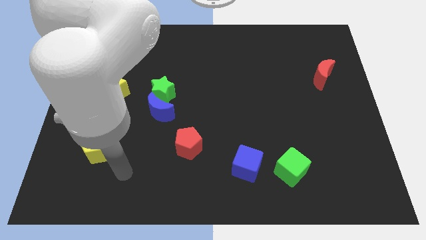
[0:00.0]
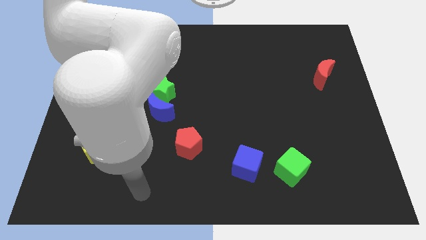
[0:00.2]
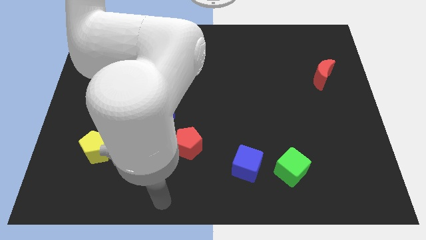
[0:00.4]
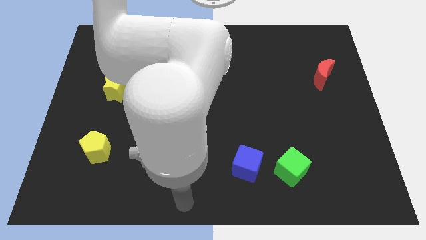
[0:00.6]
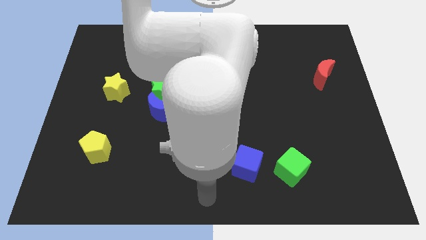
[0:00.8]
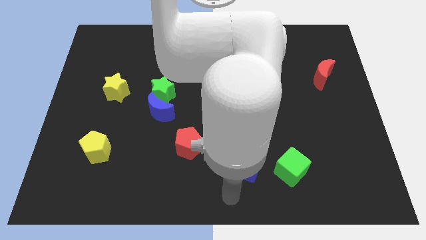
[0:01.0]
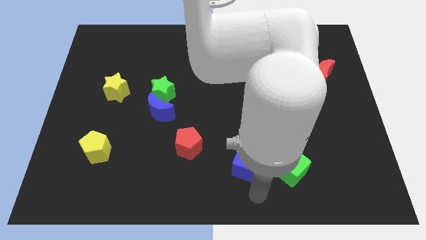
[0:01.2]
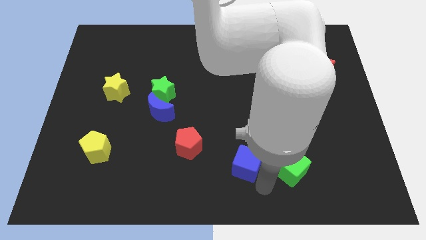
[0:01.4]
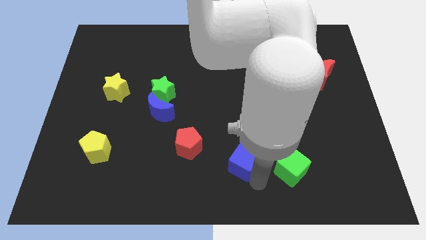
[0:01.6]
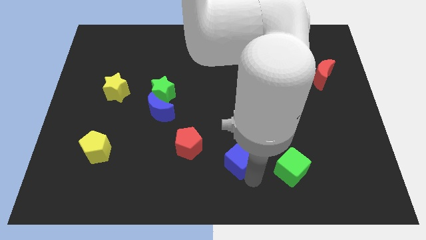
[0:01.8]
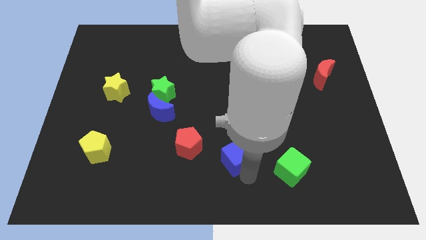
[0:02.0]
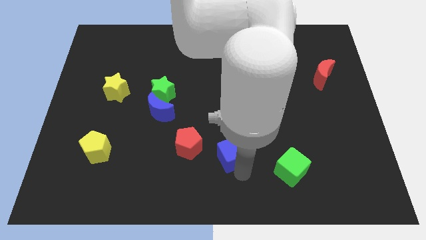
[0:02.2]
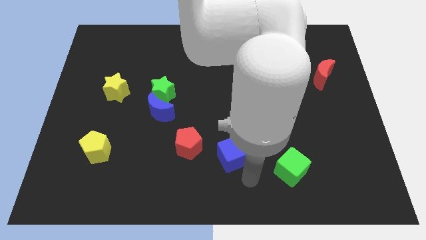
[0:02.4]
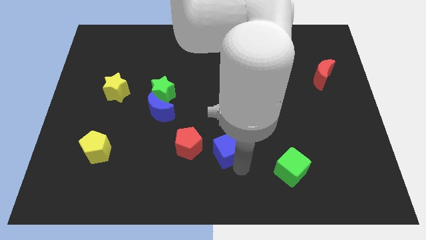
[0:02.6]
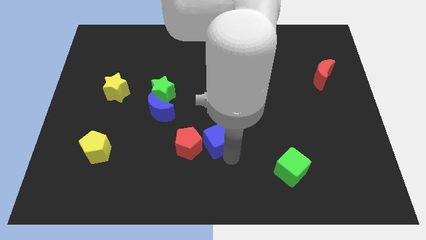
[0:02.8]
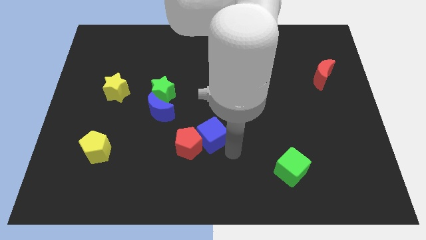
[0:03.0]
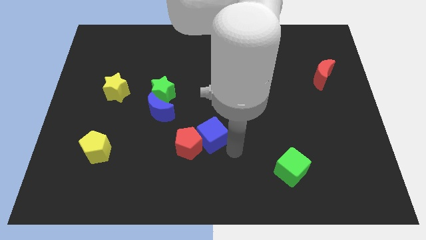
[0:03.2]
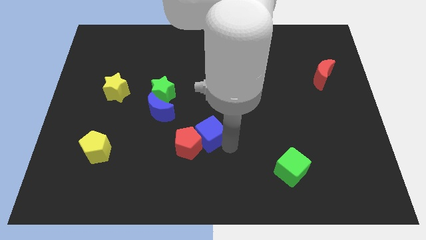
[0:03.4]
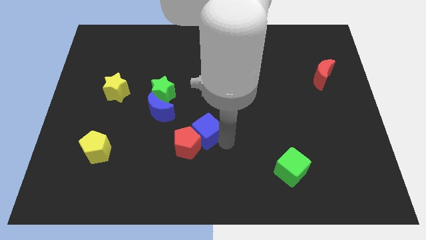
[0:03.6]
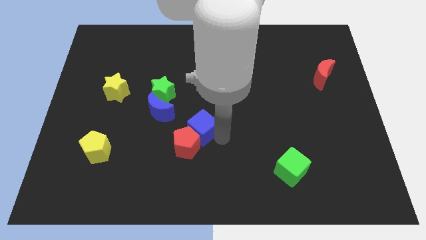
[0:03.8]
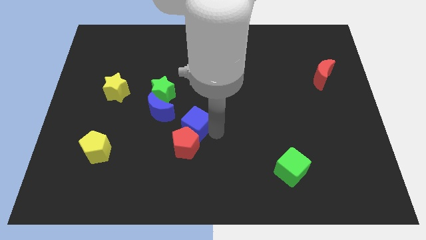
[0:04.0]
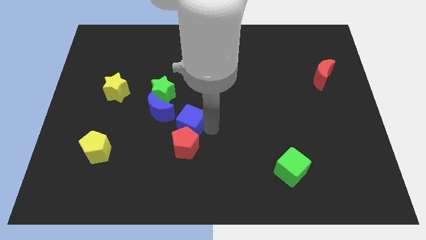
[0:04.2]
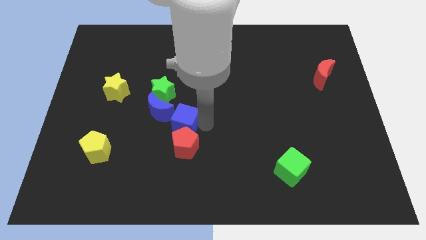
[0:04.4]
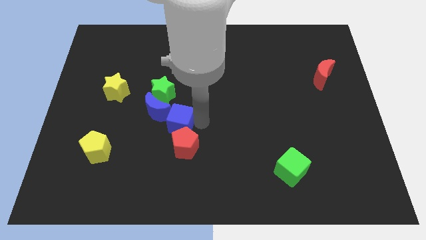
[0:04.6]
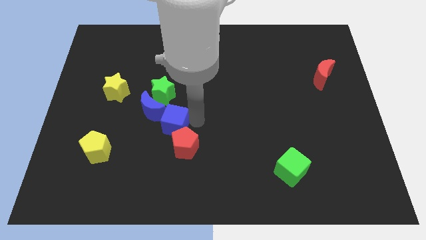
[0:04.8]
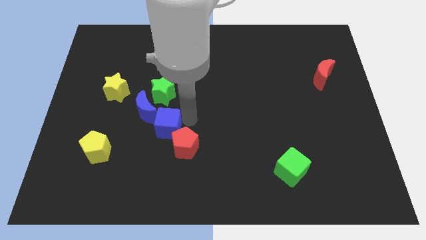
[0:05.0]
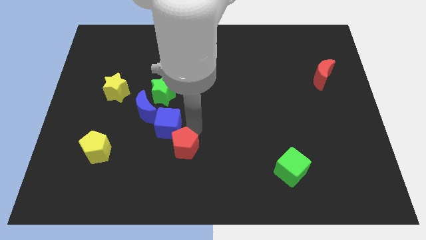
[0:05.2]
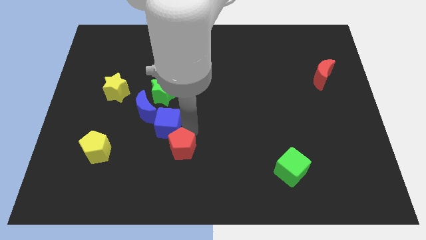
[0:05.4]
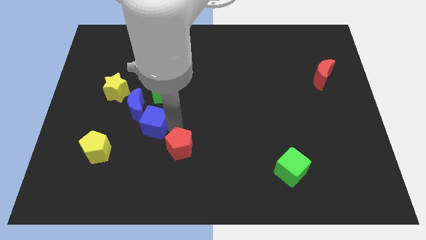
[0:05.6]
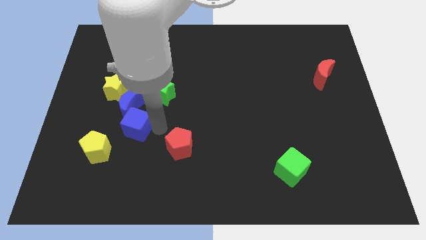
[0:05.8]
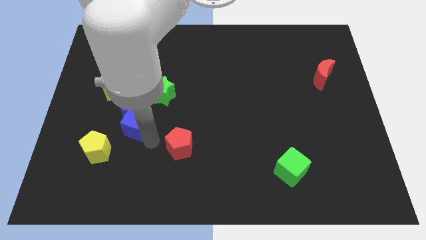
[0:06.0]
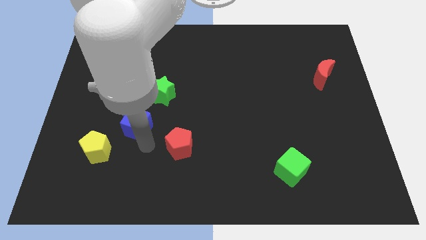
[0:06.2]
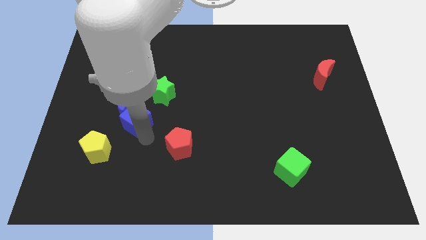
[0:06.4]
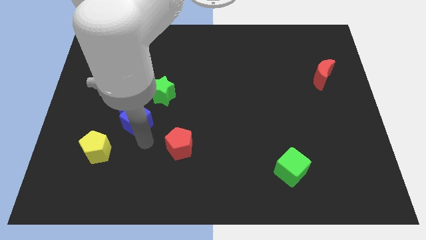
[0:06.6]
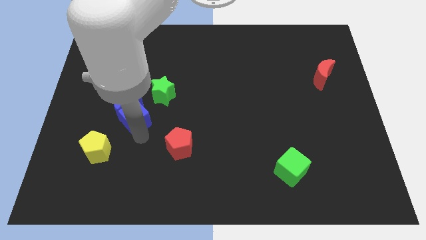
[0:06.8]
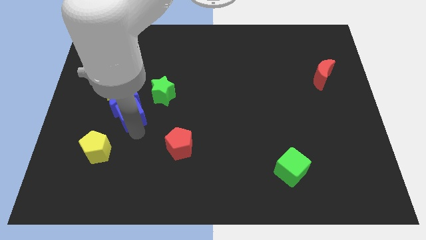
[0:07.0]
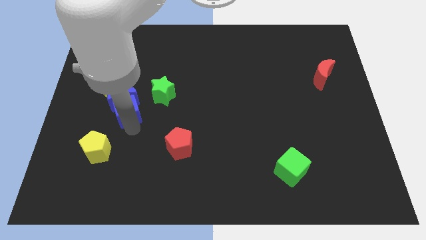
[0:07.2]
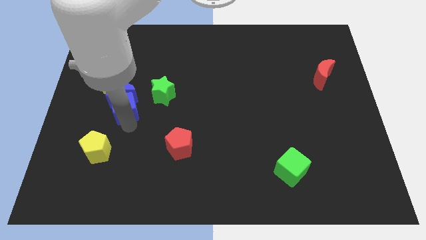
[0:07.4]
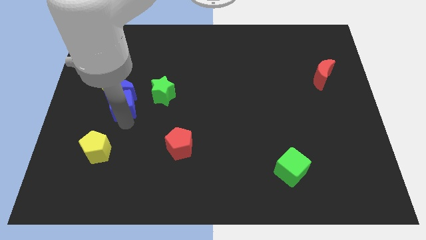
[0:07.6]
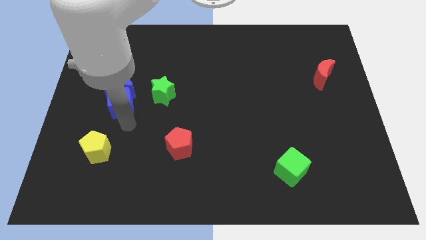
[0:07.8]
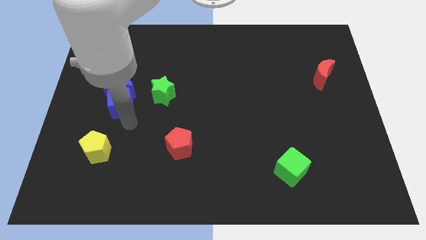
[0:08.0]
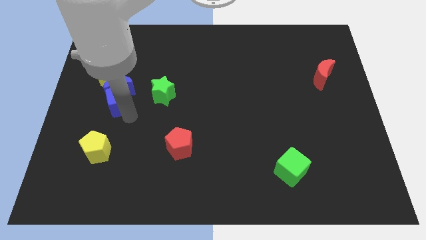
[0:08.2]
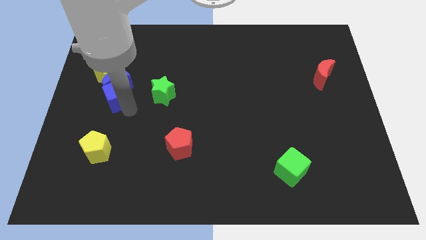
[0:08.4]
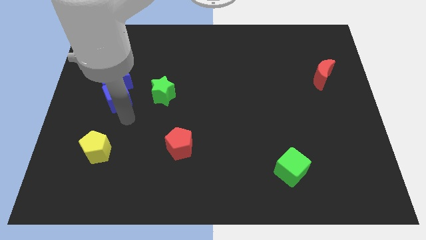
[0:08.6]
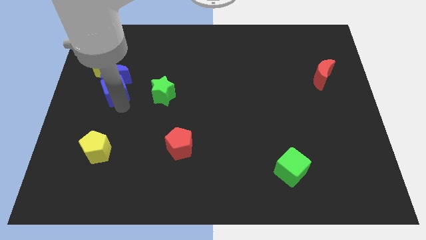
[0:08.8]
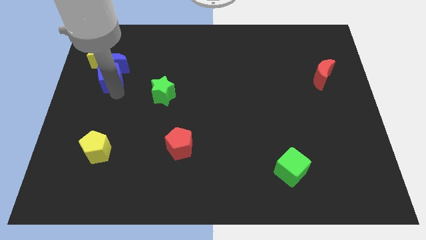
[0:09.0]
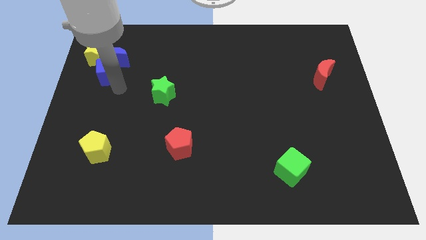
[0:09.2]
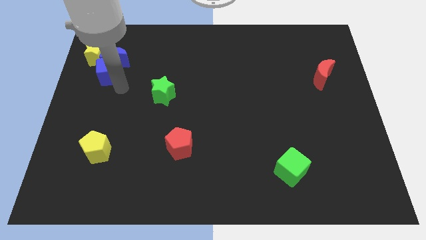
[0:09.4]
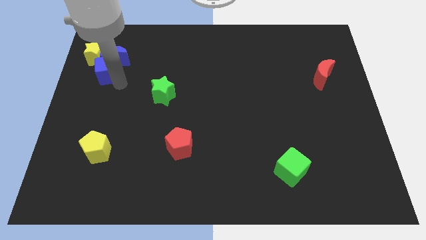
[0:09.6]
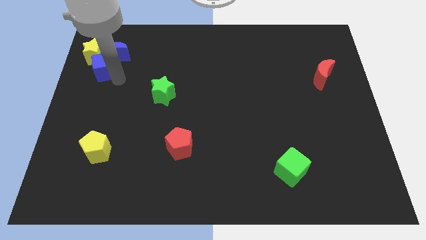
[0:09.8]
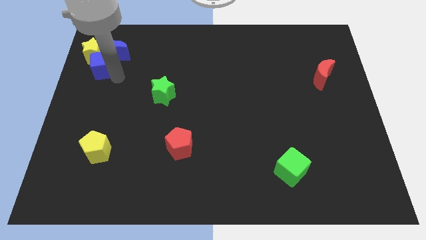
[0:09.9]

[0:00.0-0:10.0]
push the blue cube towards the yellow star

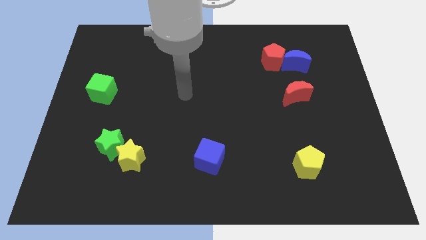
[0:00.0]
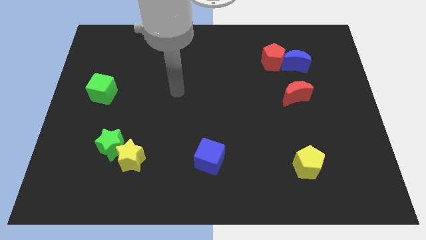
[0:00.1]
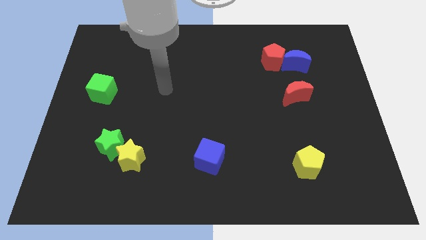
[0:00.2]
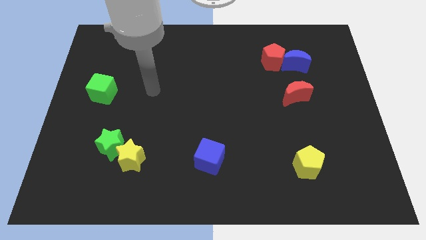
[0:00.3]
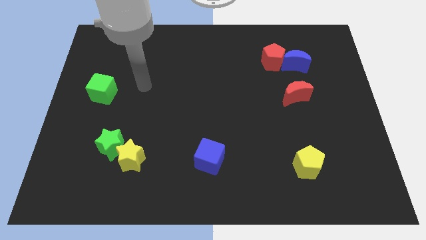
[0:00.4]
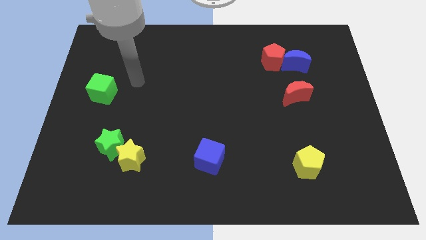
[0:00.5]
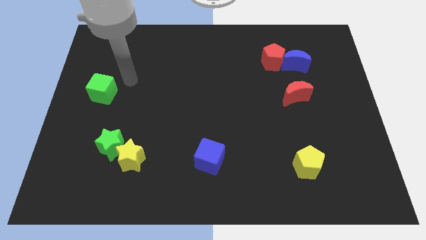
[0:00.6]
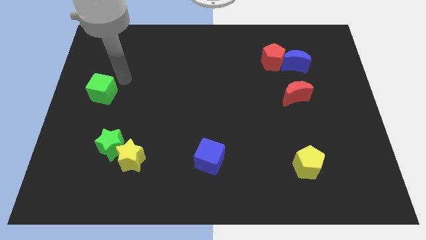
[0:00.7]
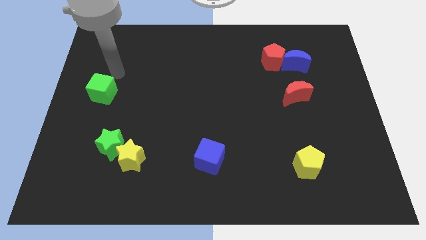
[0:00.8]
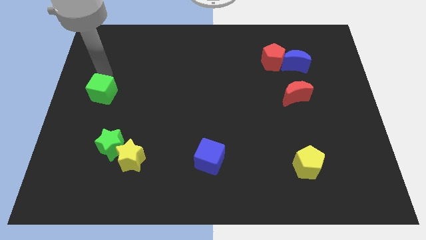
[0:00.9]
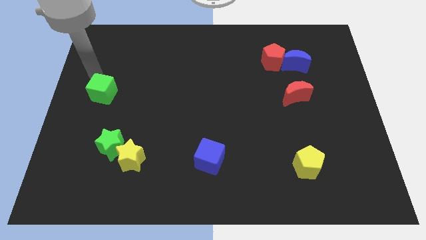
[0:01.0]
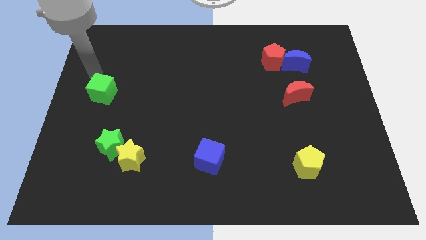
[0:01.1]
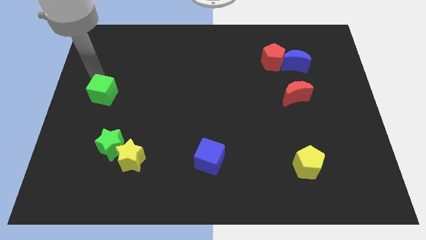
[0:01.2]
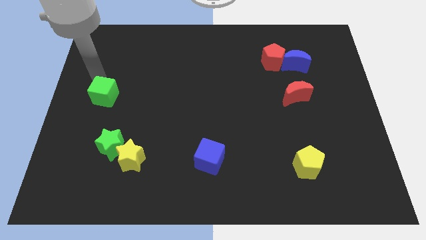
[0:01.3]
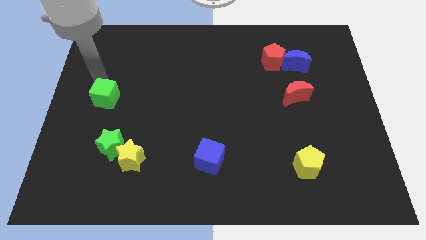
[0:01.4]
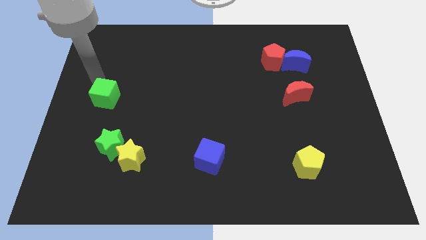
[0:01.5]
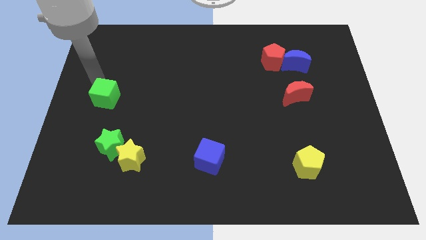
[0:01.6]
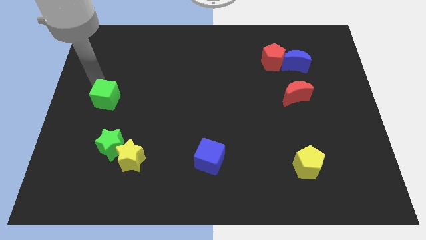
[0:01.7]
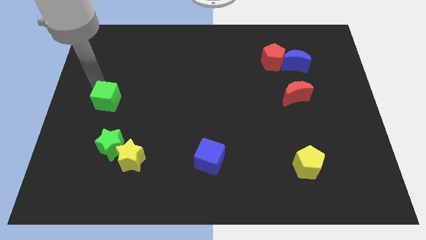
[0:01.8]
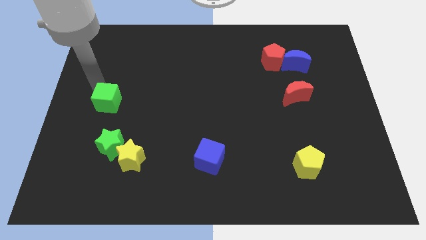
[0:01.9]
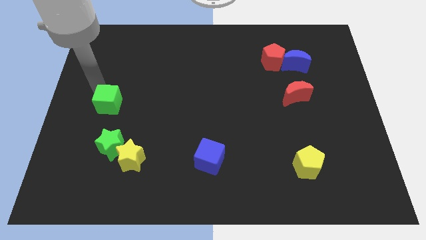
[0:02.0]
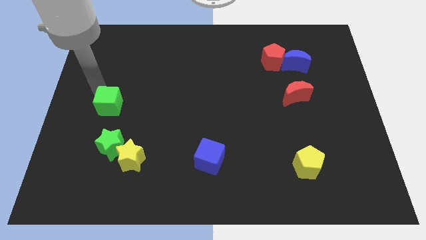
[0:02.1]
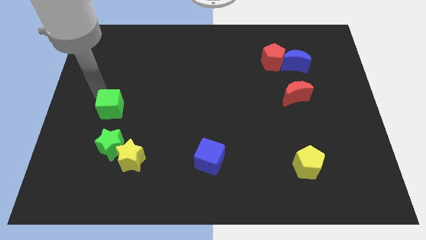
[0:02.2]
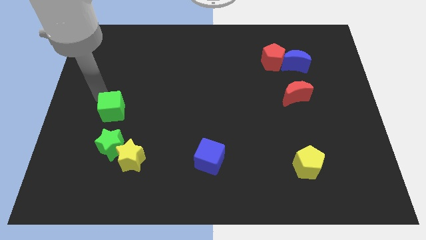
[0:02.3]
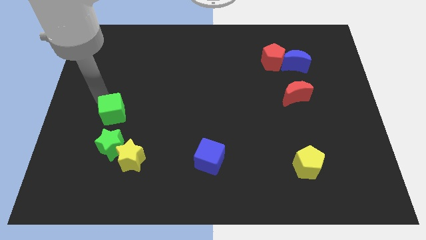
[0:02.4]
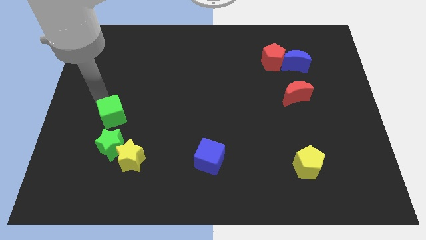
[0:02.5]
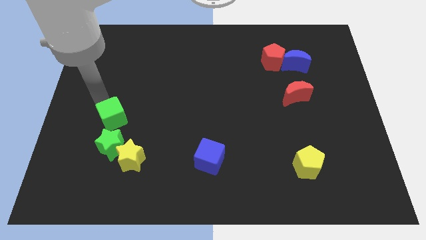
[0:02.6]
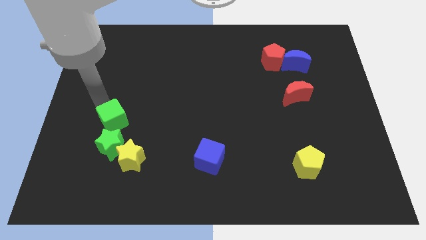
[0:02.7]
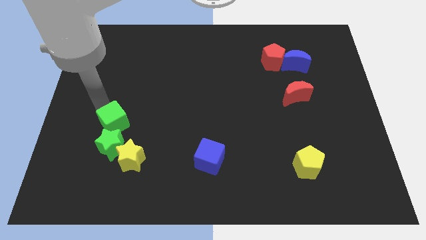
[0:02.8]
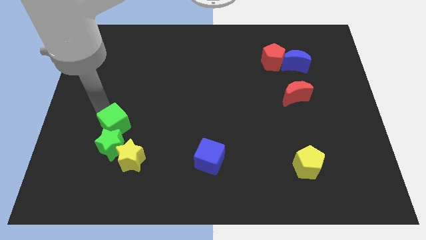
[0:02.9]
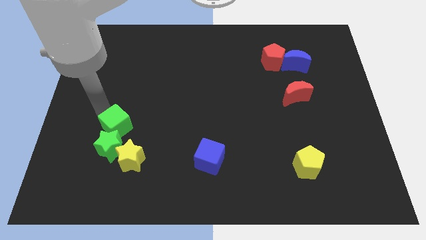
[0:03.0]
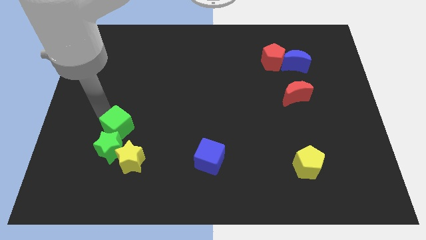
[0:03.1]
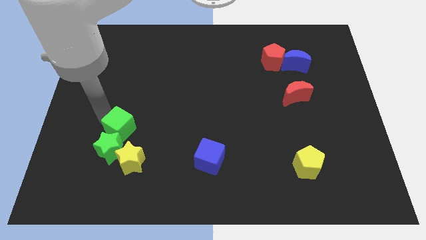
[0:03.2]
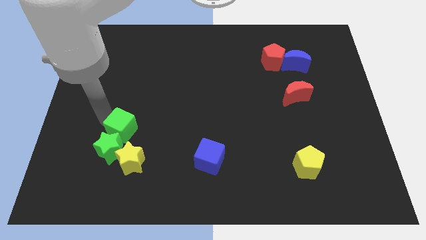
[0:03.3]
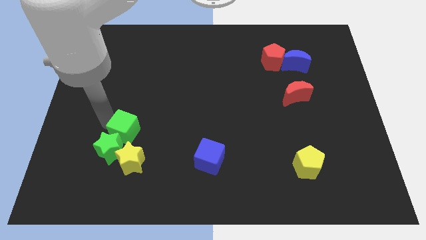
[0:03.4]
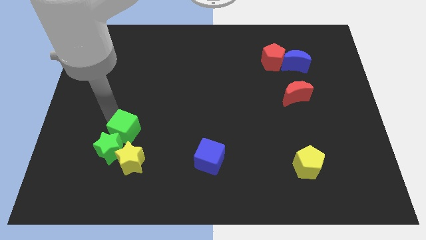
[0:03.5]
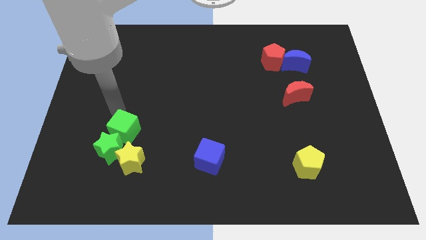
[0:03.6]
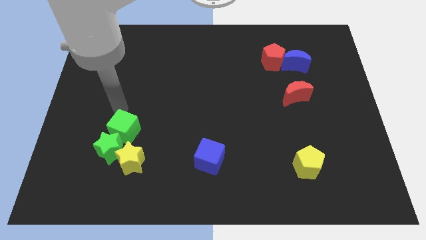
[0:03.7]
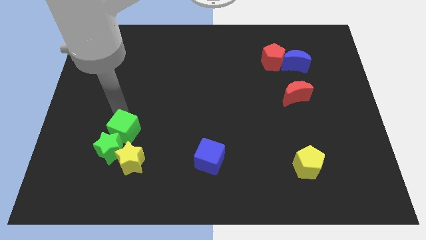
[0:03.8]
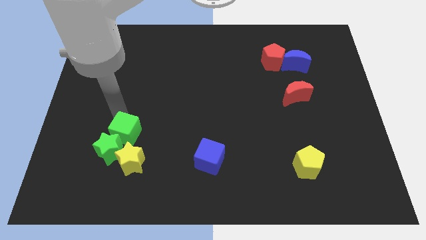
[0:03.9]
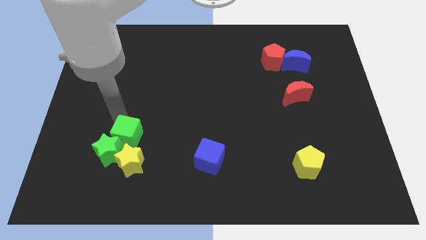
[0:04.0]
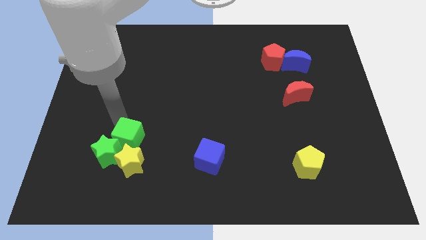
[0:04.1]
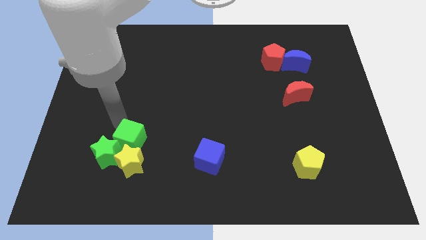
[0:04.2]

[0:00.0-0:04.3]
move the green cube towards the yellow star
